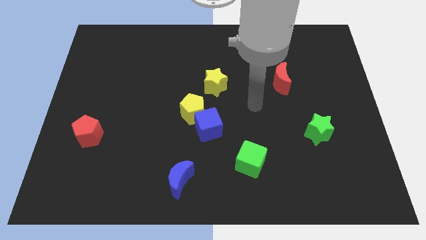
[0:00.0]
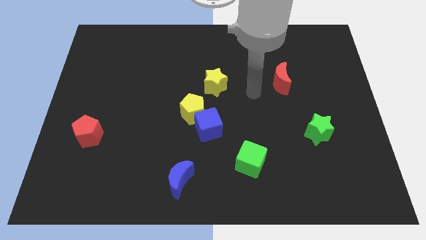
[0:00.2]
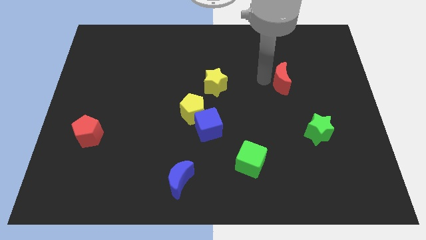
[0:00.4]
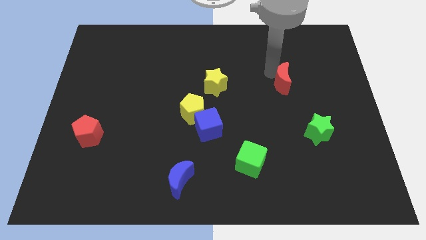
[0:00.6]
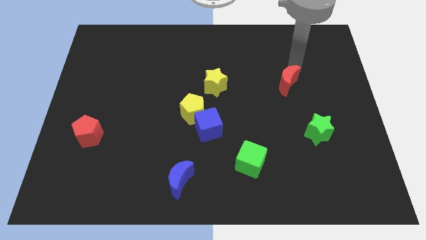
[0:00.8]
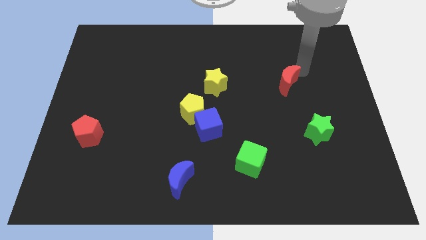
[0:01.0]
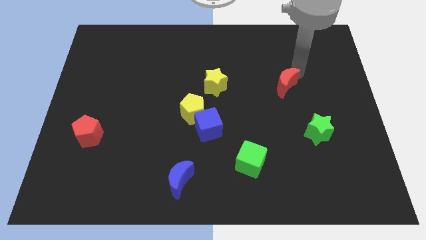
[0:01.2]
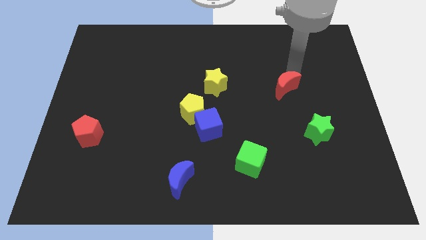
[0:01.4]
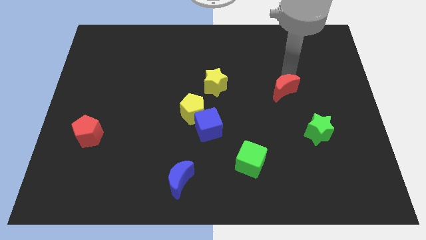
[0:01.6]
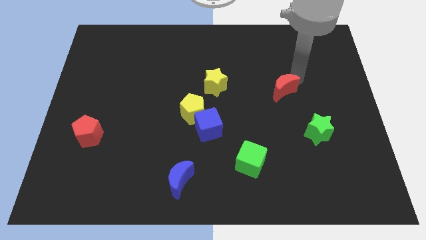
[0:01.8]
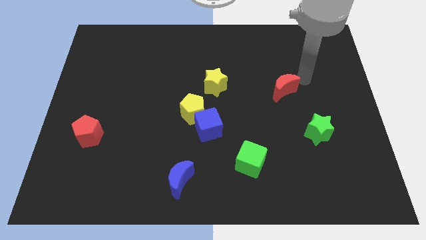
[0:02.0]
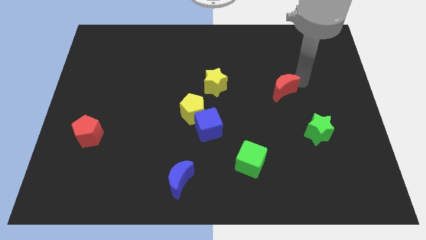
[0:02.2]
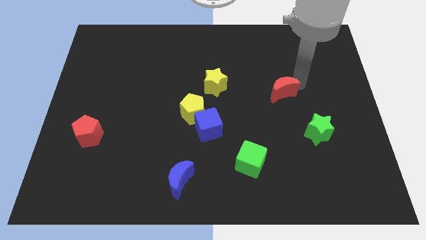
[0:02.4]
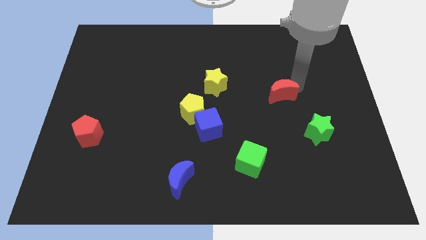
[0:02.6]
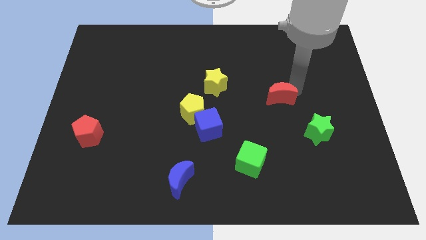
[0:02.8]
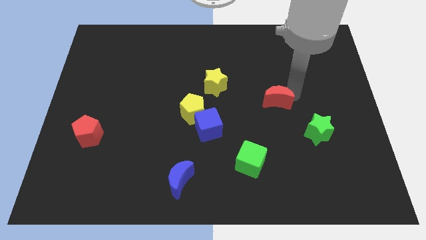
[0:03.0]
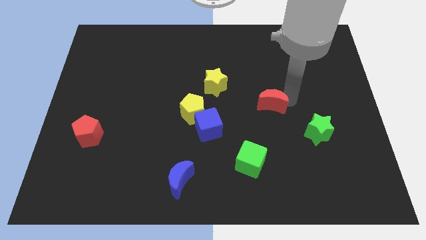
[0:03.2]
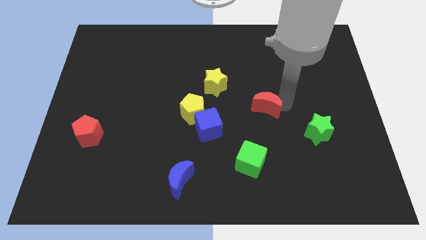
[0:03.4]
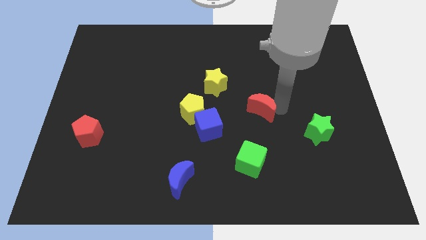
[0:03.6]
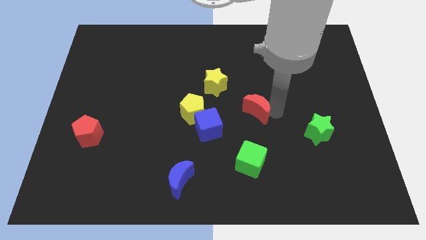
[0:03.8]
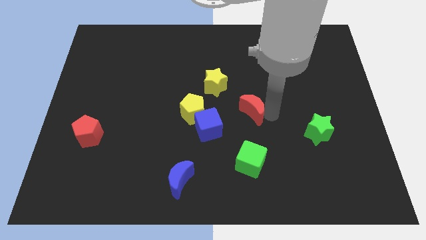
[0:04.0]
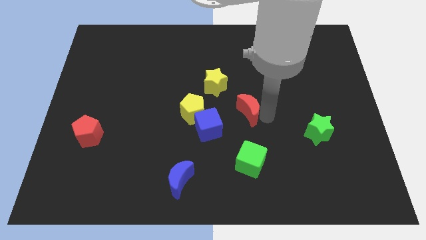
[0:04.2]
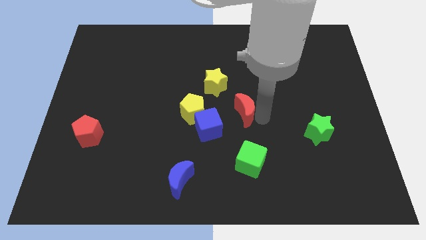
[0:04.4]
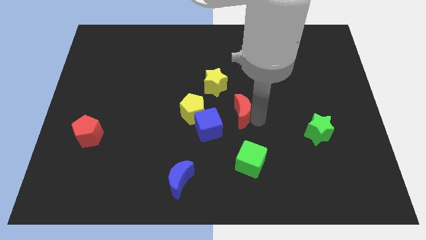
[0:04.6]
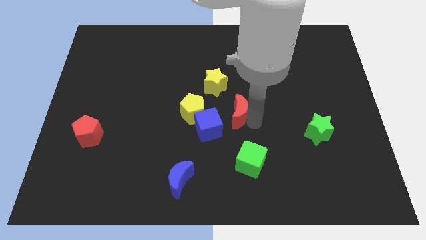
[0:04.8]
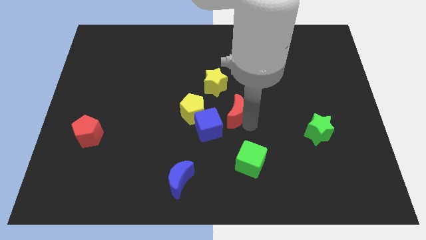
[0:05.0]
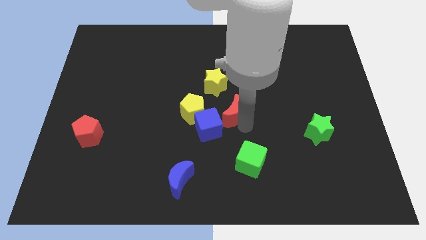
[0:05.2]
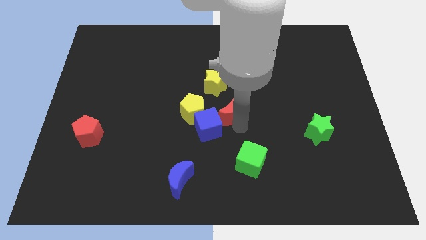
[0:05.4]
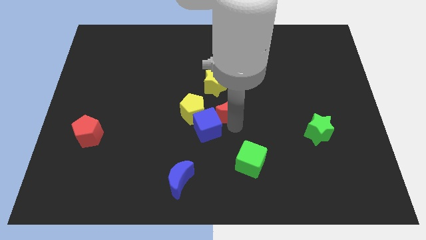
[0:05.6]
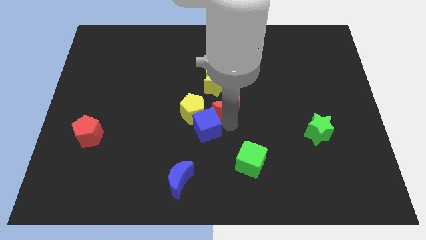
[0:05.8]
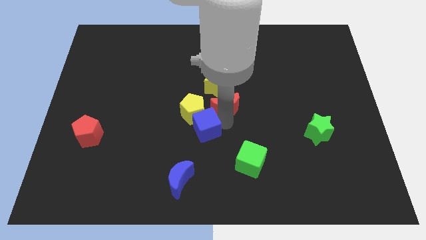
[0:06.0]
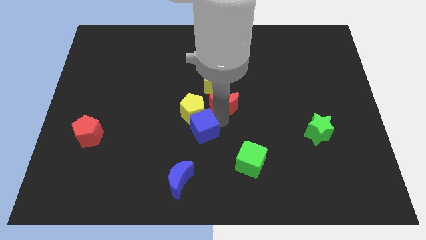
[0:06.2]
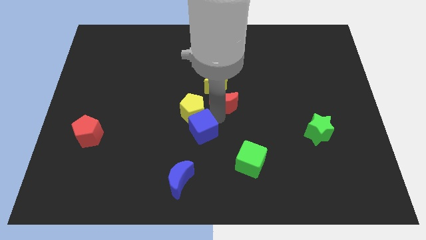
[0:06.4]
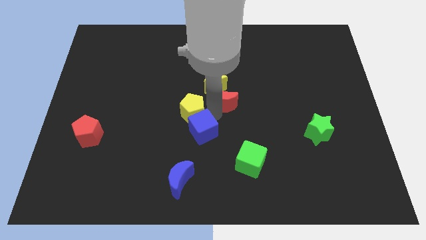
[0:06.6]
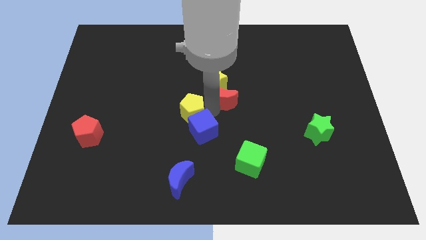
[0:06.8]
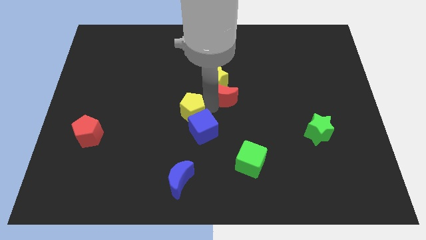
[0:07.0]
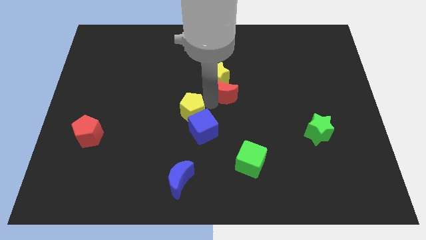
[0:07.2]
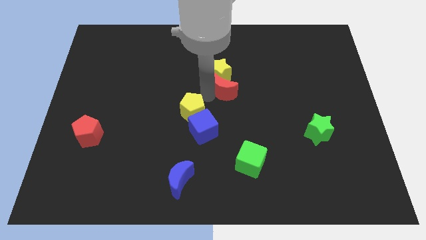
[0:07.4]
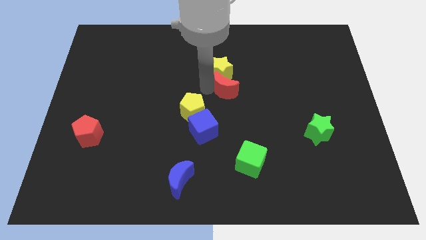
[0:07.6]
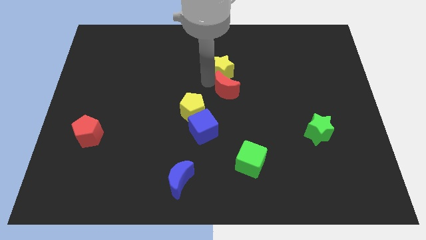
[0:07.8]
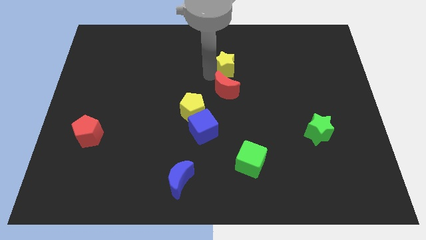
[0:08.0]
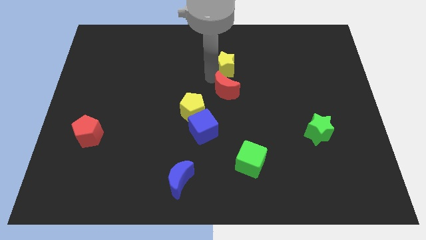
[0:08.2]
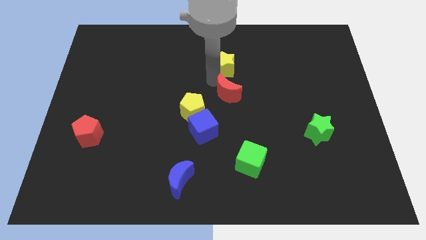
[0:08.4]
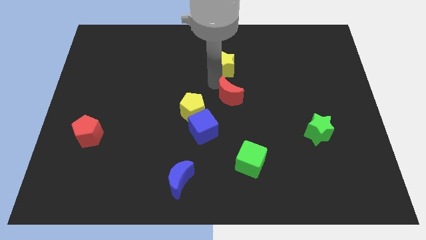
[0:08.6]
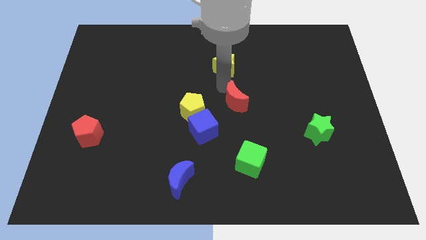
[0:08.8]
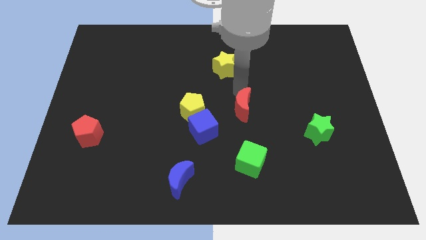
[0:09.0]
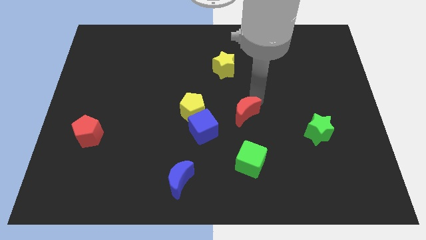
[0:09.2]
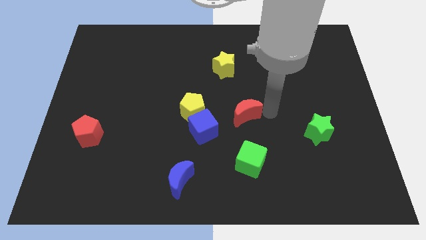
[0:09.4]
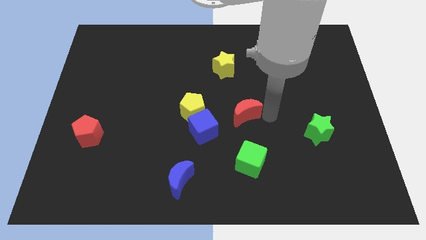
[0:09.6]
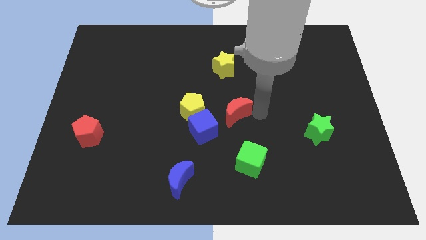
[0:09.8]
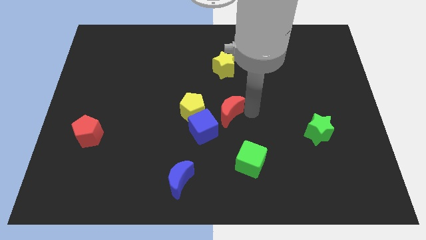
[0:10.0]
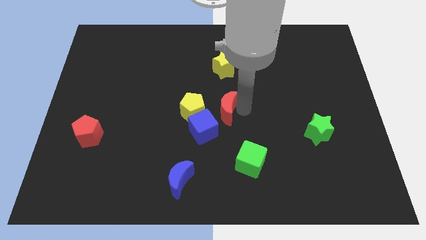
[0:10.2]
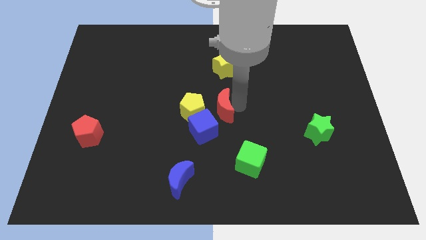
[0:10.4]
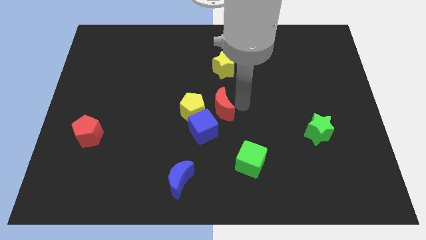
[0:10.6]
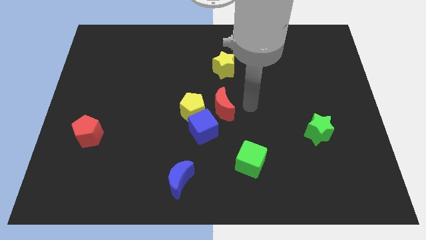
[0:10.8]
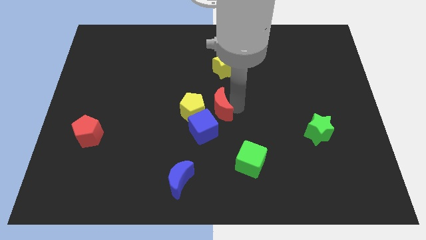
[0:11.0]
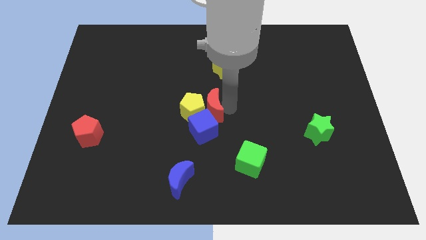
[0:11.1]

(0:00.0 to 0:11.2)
push the red moon next to the yellow pentagon

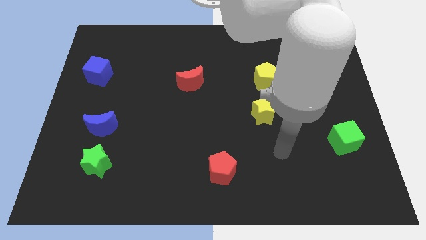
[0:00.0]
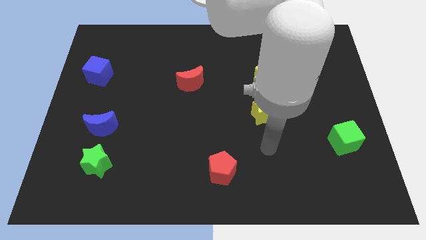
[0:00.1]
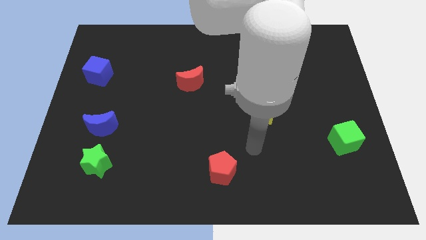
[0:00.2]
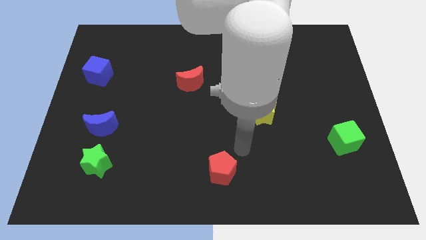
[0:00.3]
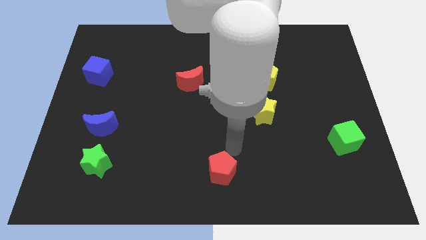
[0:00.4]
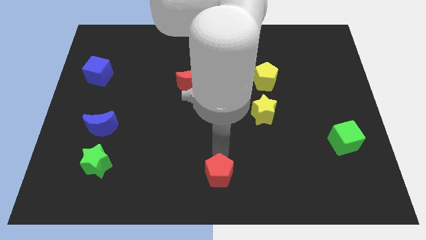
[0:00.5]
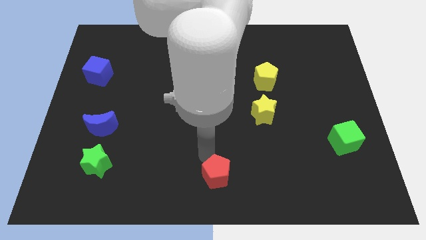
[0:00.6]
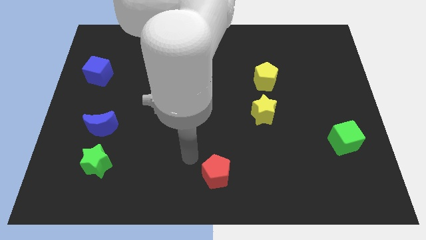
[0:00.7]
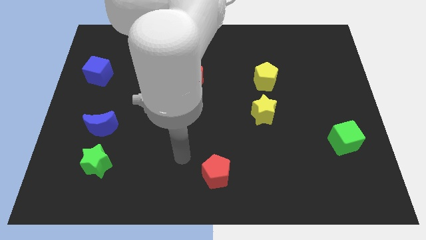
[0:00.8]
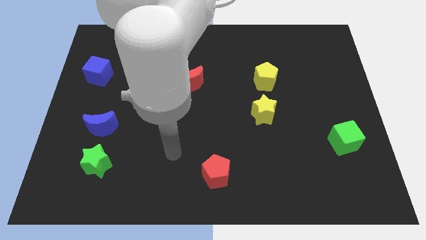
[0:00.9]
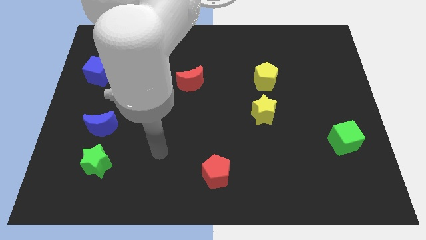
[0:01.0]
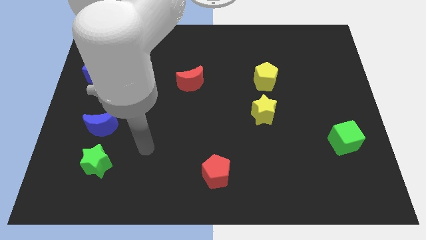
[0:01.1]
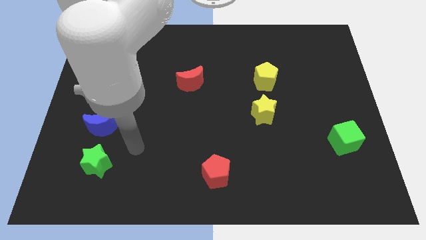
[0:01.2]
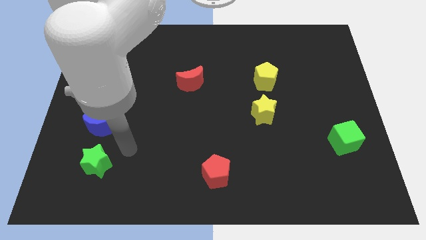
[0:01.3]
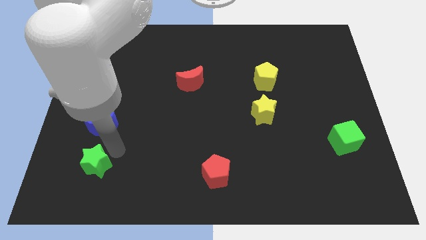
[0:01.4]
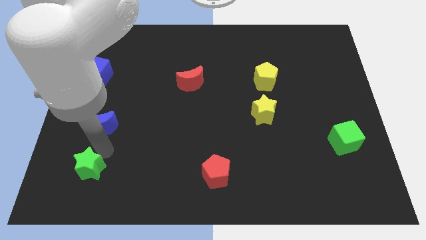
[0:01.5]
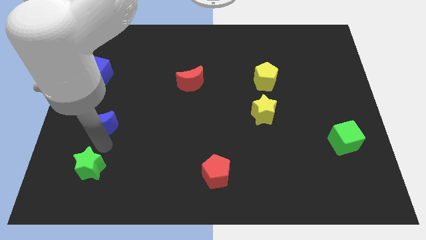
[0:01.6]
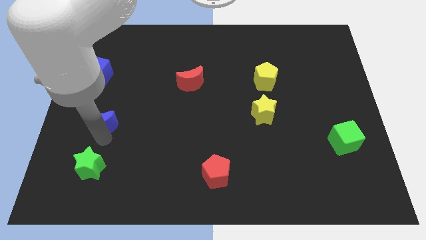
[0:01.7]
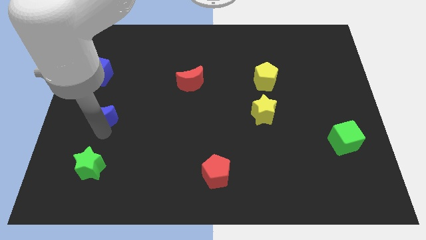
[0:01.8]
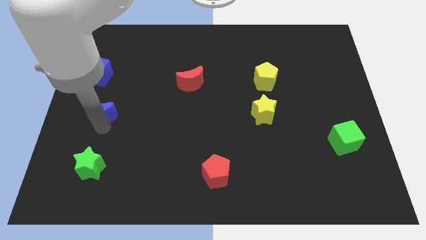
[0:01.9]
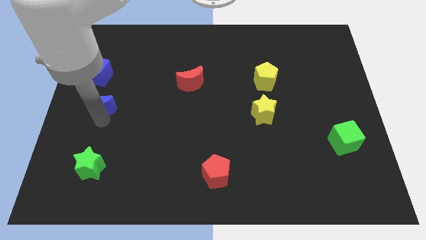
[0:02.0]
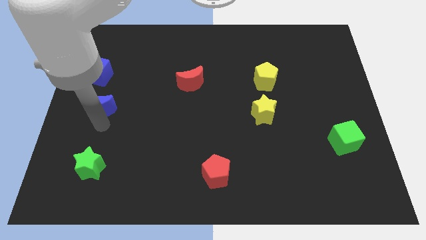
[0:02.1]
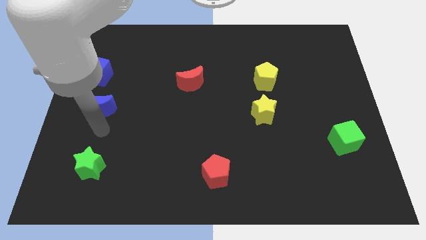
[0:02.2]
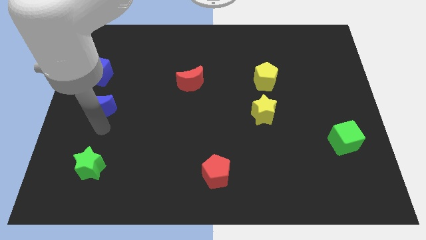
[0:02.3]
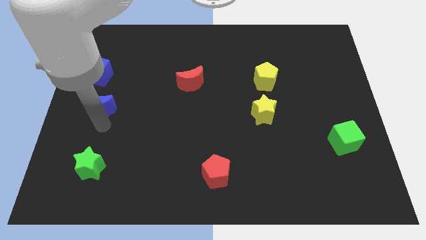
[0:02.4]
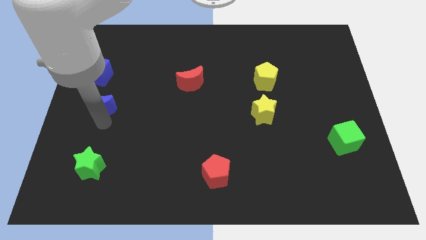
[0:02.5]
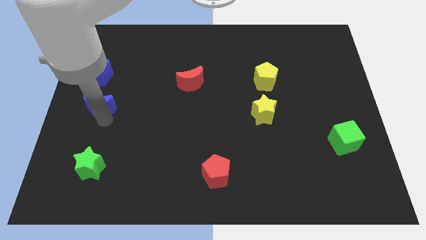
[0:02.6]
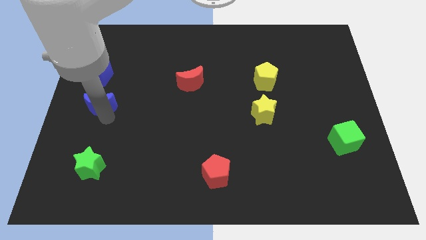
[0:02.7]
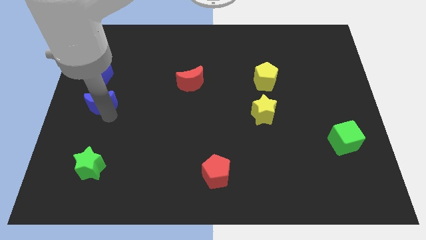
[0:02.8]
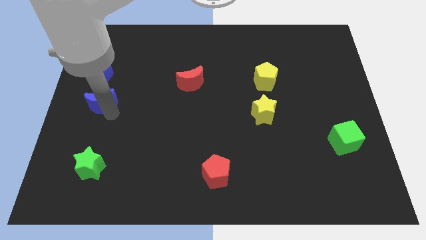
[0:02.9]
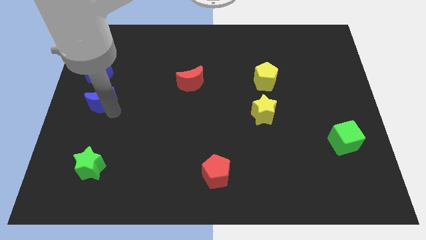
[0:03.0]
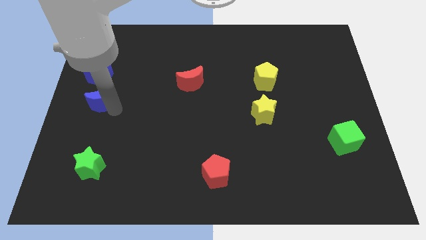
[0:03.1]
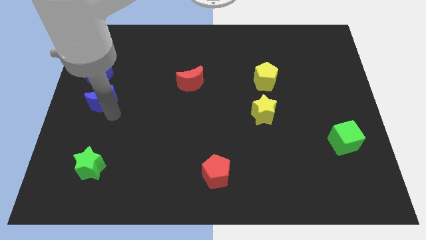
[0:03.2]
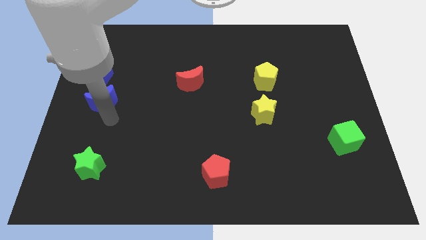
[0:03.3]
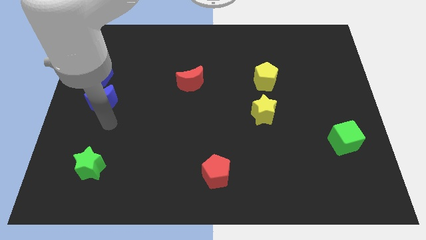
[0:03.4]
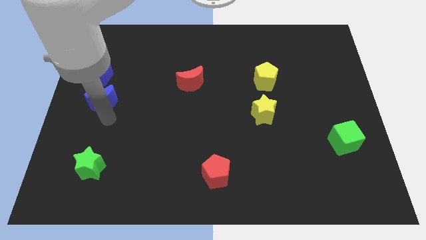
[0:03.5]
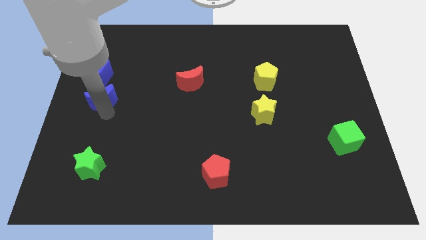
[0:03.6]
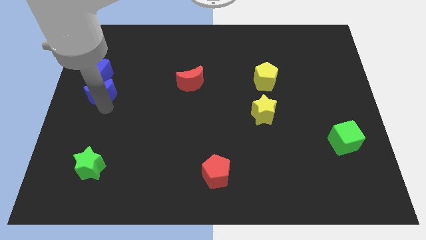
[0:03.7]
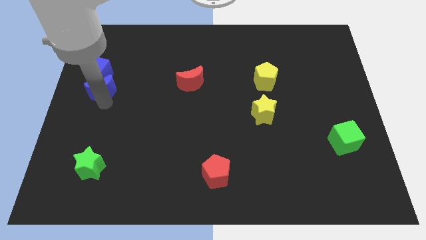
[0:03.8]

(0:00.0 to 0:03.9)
push the blue moon close to the blue cube
